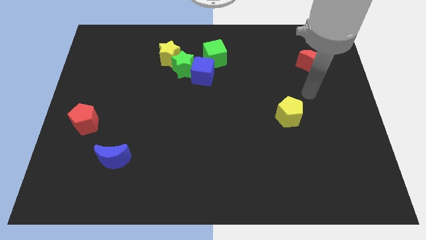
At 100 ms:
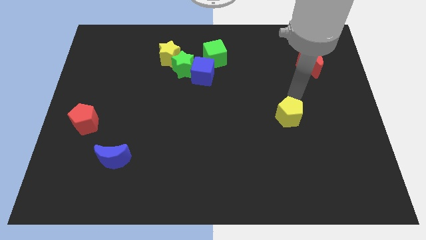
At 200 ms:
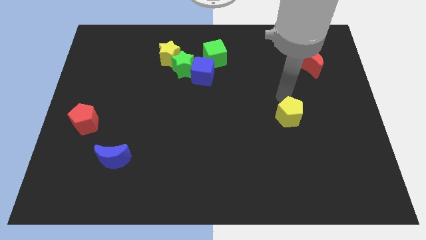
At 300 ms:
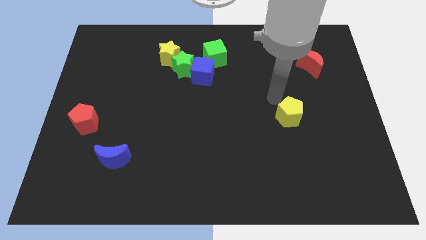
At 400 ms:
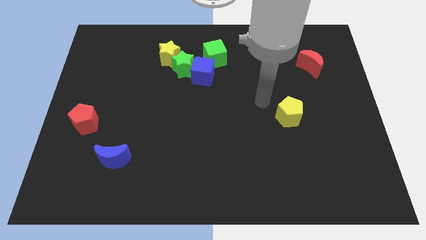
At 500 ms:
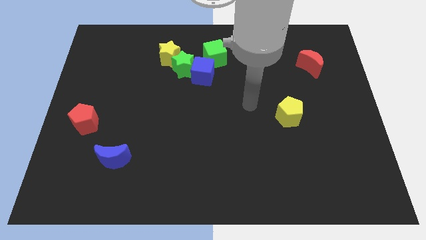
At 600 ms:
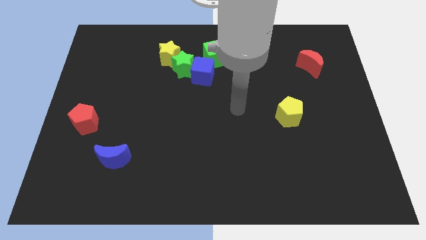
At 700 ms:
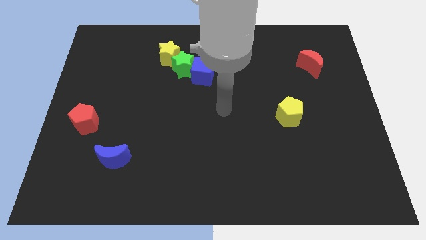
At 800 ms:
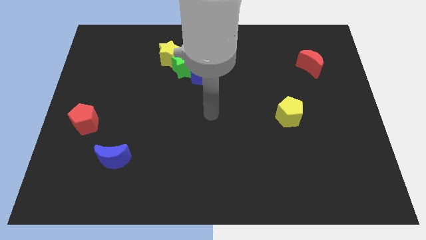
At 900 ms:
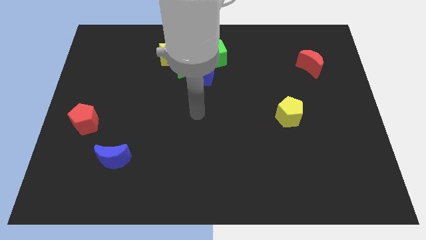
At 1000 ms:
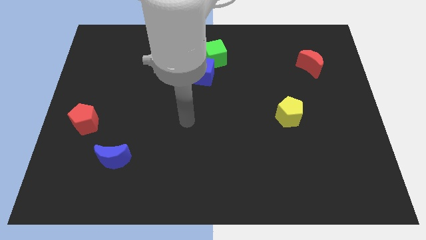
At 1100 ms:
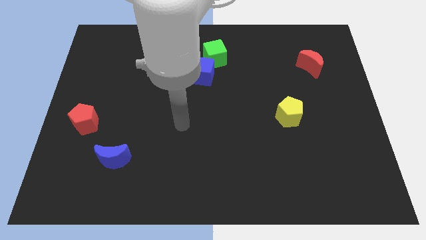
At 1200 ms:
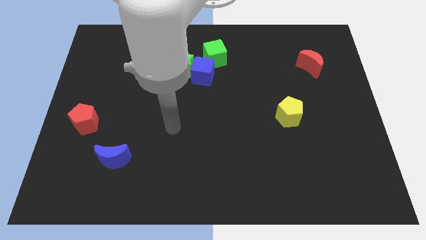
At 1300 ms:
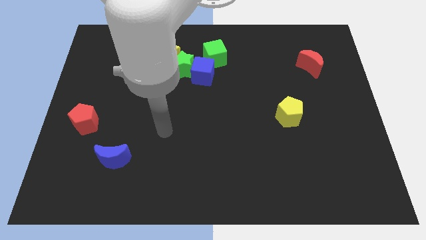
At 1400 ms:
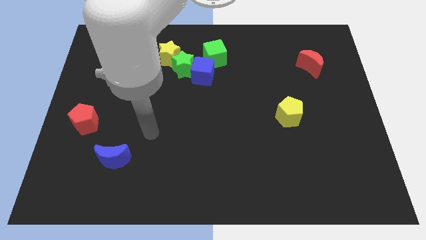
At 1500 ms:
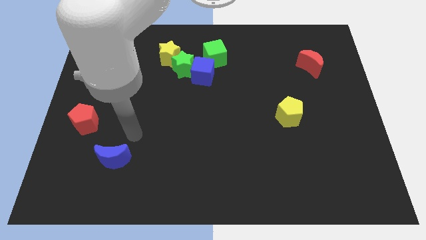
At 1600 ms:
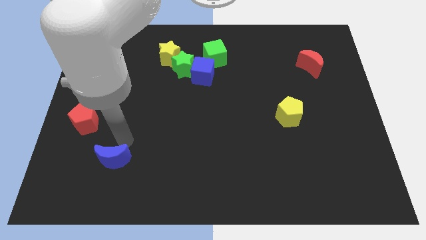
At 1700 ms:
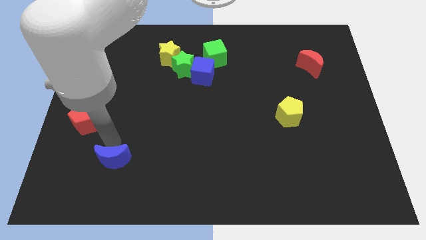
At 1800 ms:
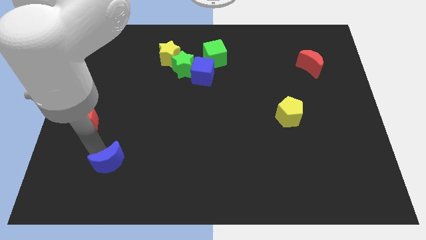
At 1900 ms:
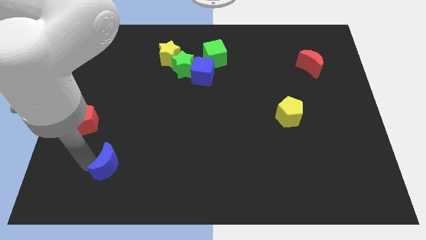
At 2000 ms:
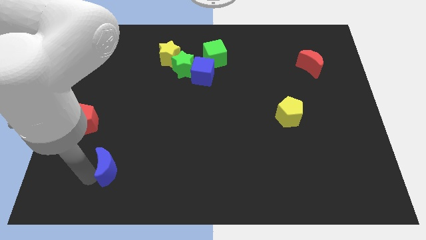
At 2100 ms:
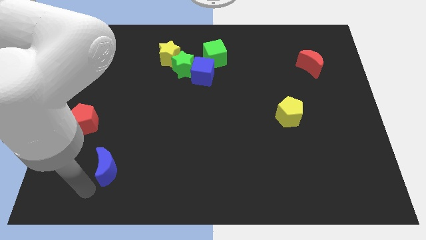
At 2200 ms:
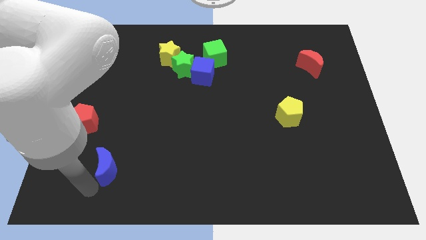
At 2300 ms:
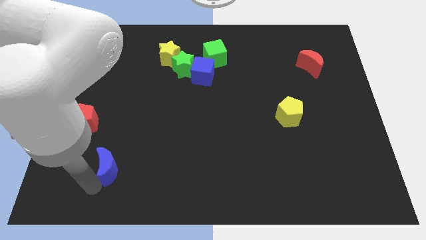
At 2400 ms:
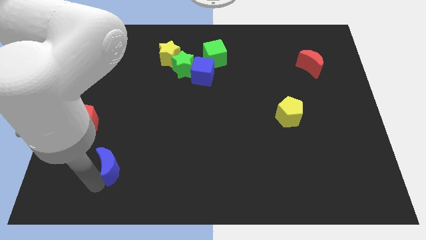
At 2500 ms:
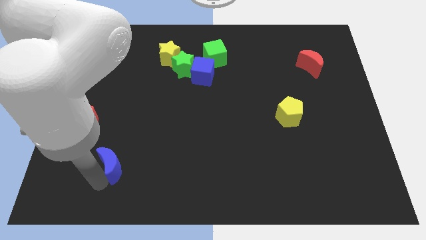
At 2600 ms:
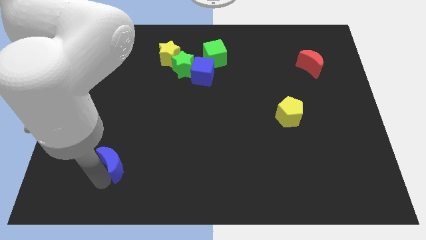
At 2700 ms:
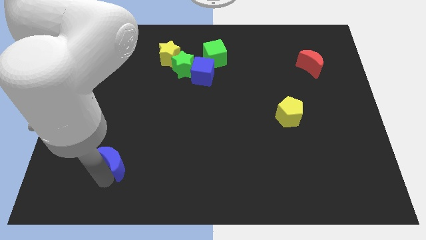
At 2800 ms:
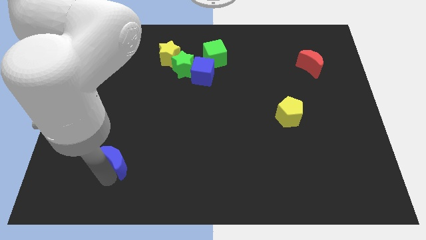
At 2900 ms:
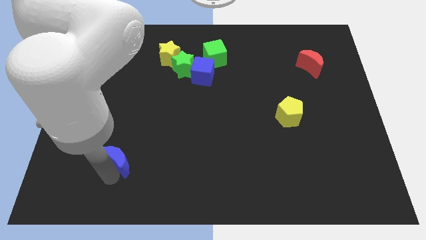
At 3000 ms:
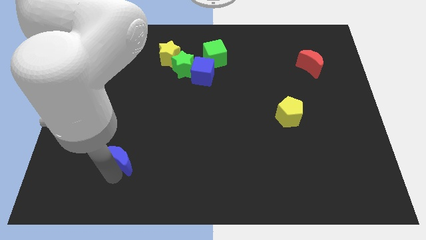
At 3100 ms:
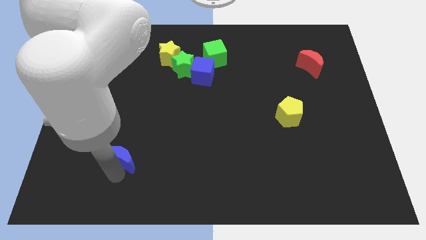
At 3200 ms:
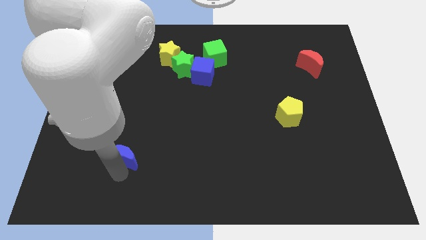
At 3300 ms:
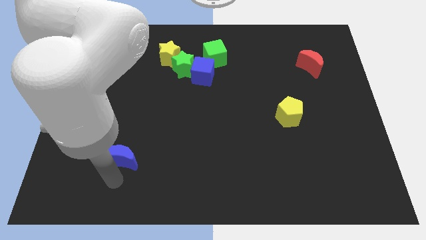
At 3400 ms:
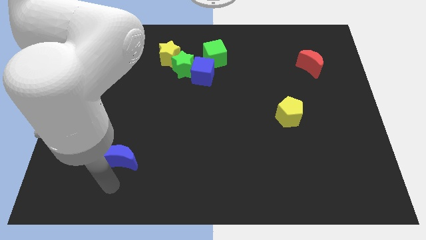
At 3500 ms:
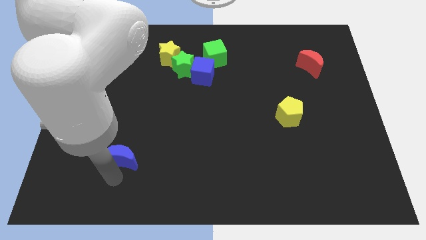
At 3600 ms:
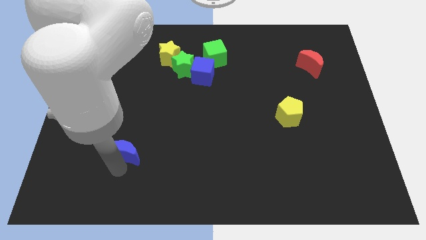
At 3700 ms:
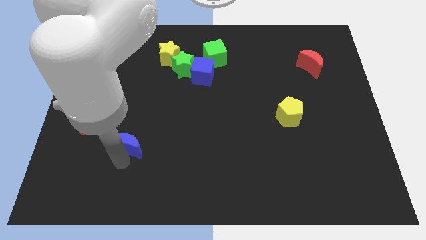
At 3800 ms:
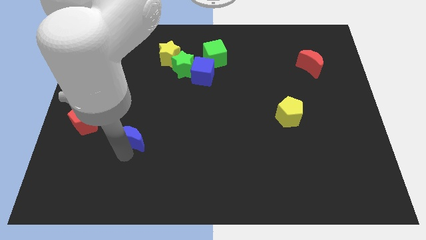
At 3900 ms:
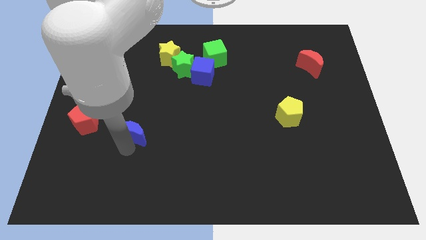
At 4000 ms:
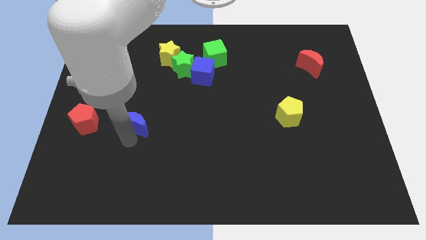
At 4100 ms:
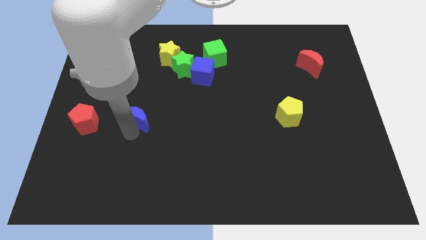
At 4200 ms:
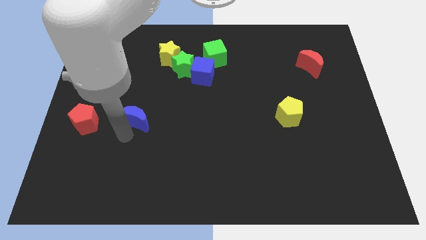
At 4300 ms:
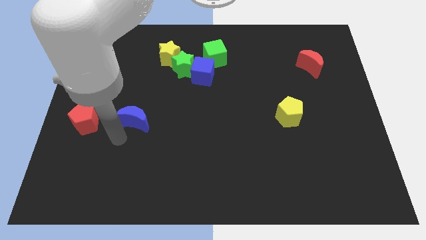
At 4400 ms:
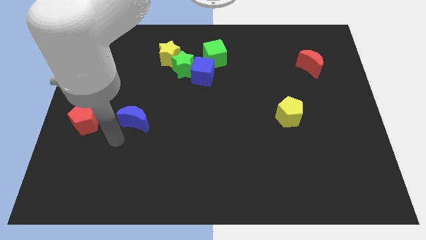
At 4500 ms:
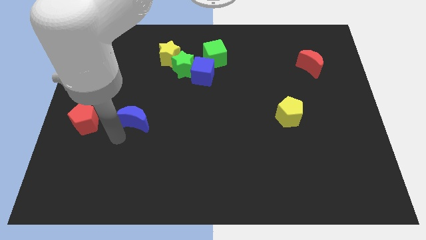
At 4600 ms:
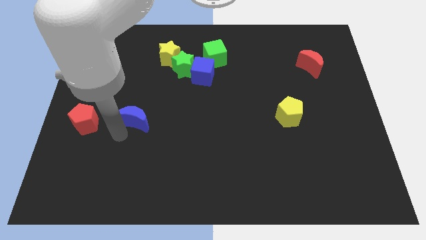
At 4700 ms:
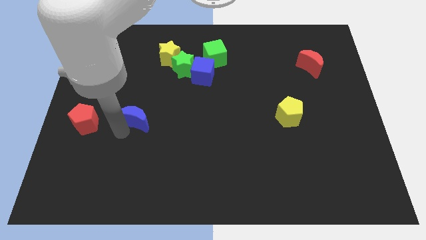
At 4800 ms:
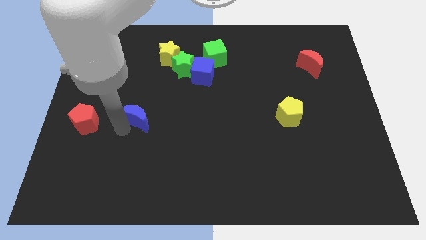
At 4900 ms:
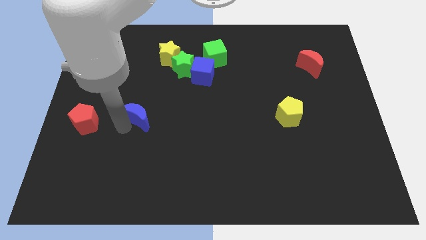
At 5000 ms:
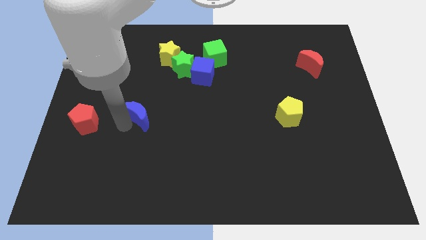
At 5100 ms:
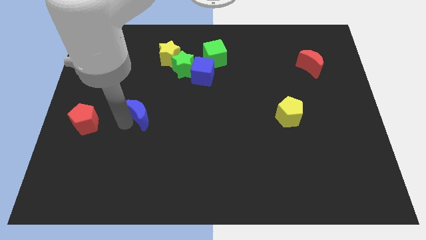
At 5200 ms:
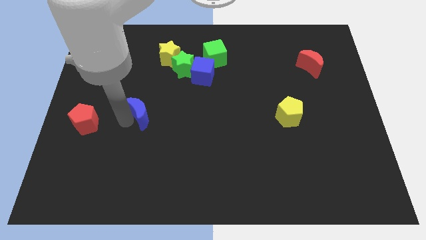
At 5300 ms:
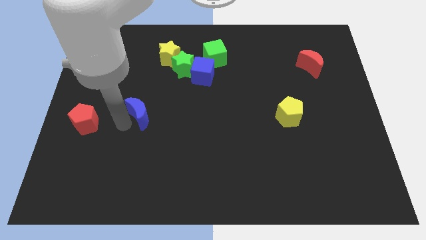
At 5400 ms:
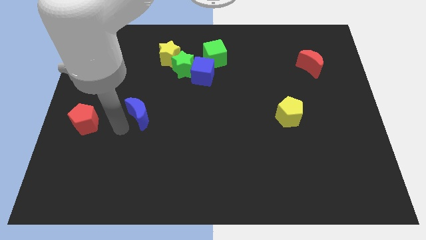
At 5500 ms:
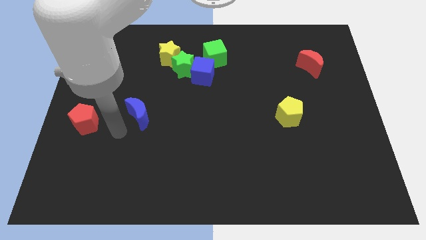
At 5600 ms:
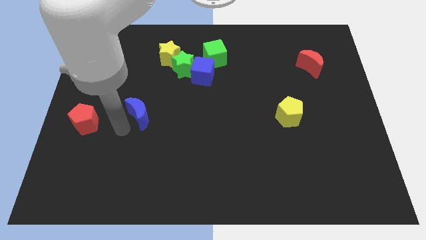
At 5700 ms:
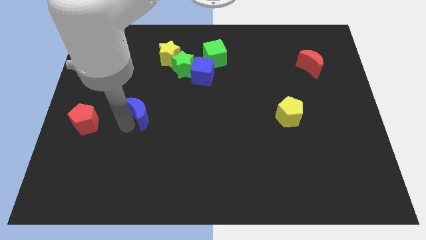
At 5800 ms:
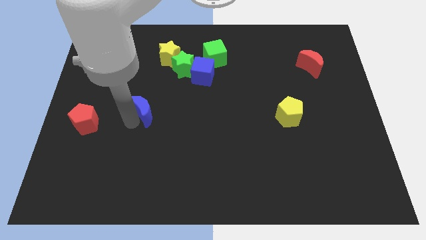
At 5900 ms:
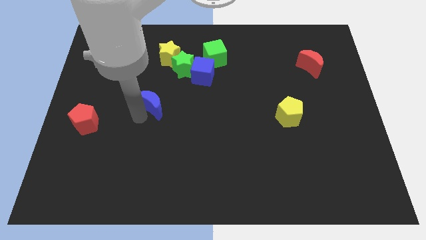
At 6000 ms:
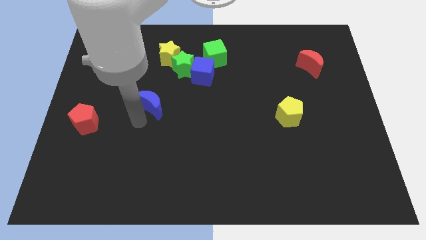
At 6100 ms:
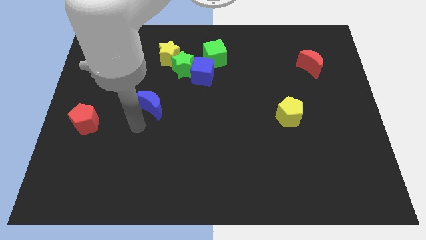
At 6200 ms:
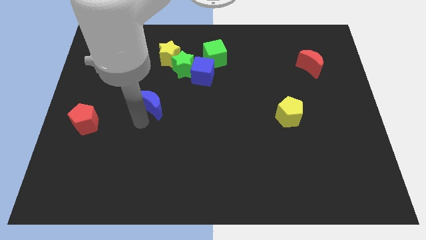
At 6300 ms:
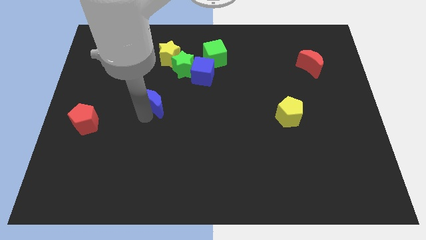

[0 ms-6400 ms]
push the blue moon below the yellow star
